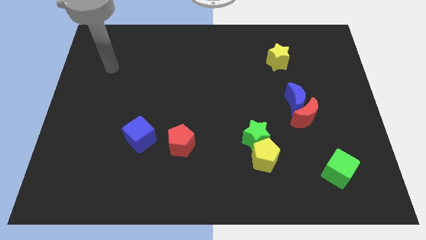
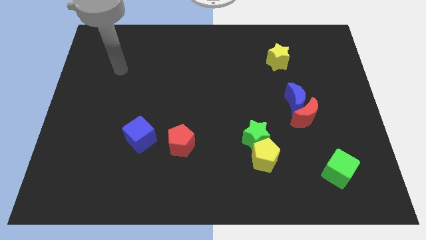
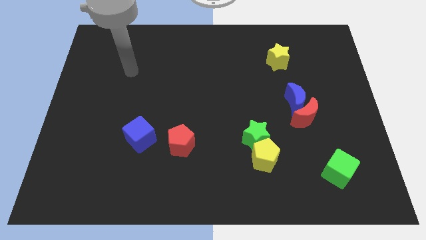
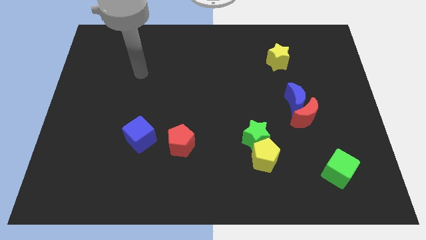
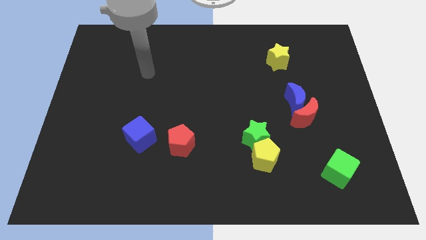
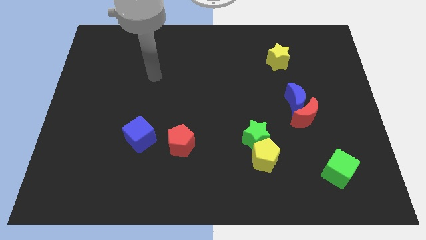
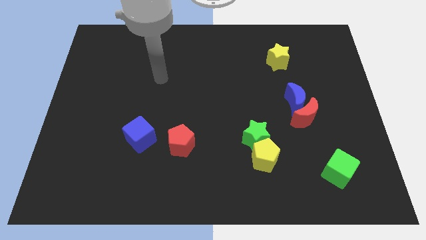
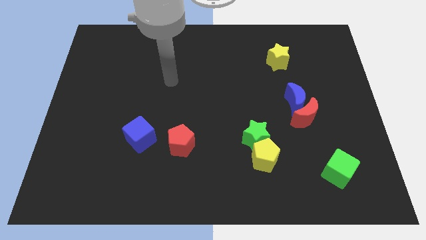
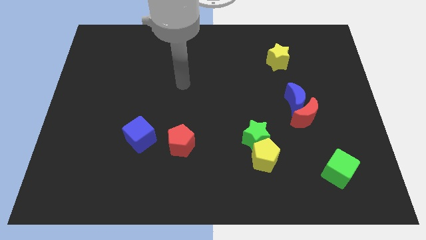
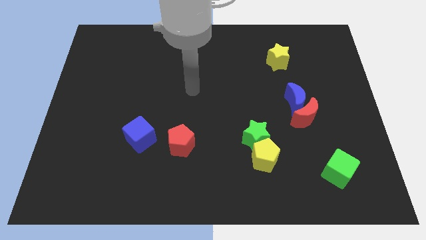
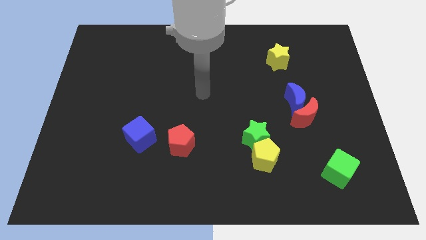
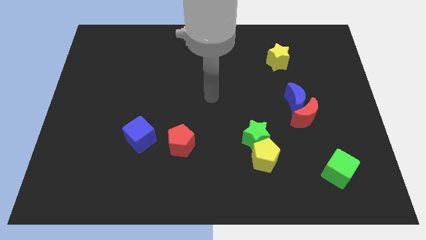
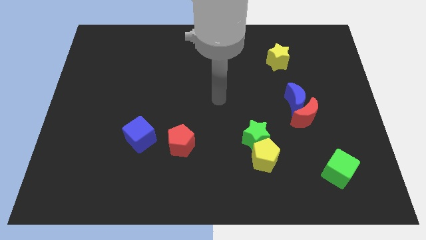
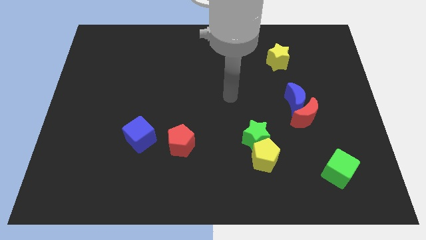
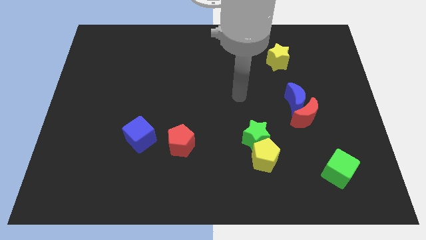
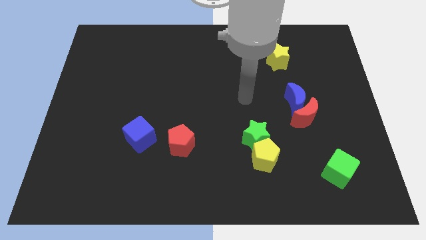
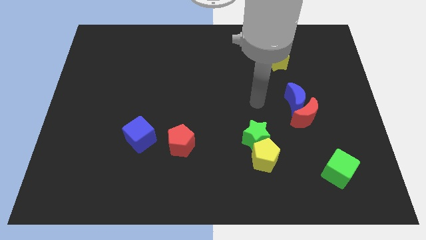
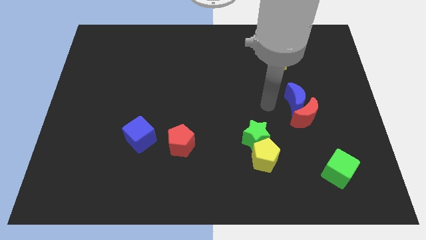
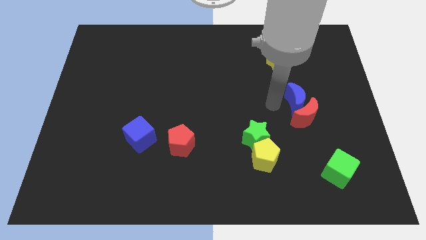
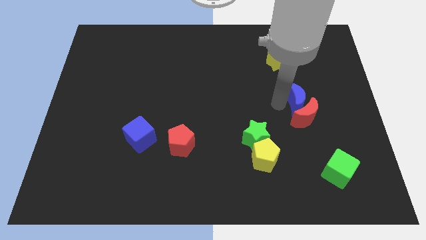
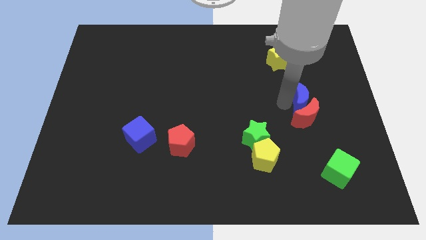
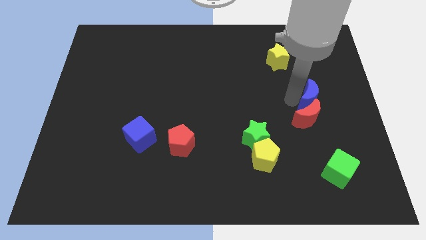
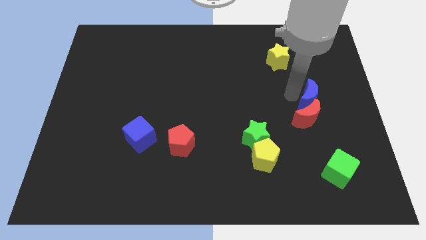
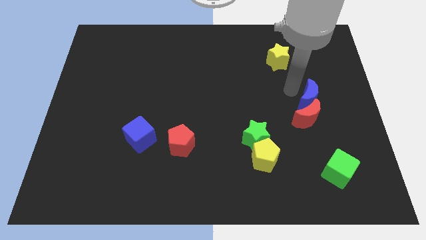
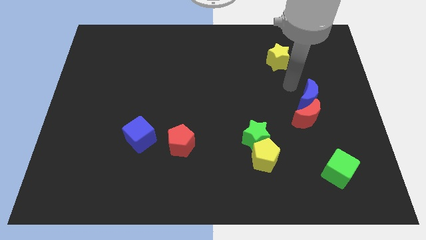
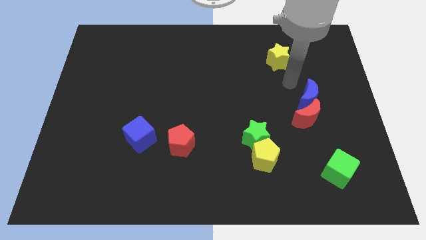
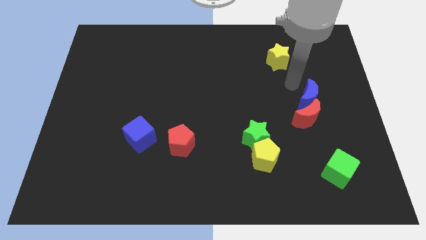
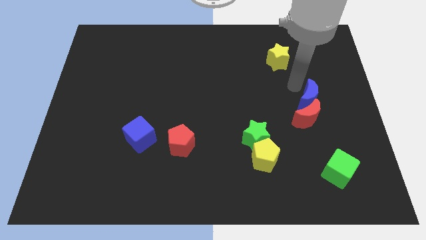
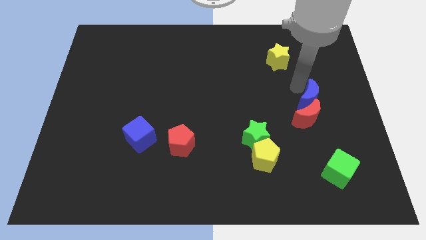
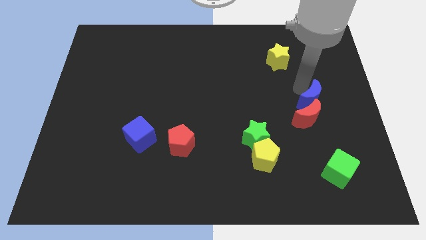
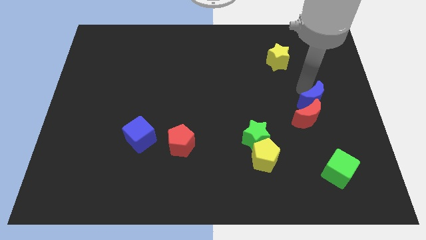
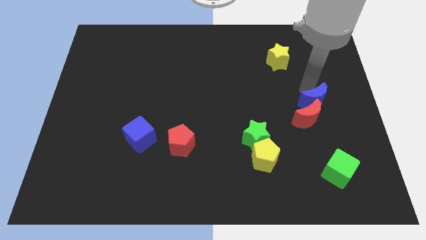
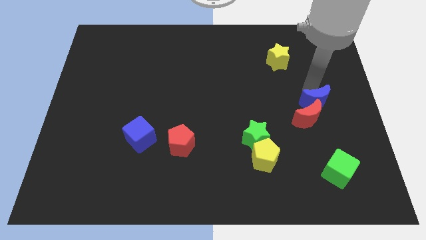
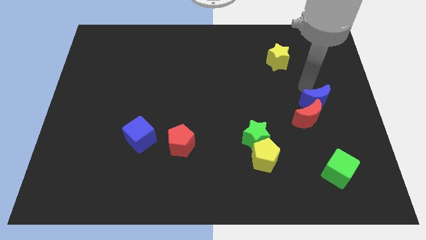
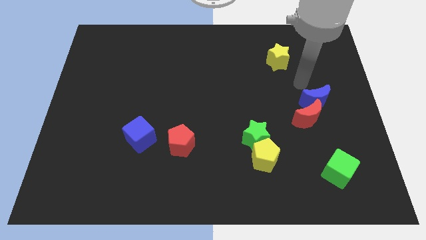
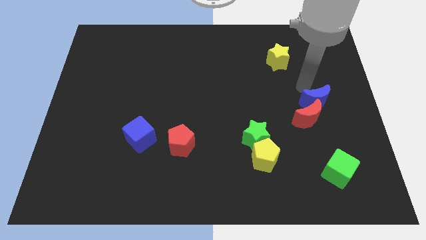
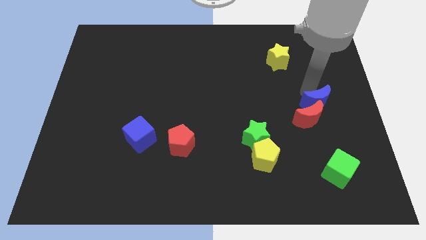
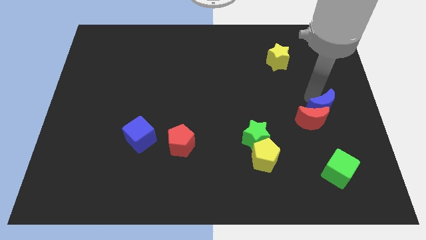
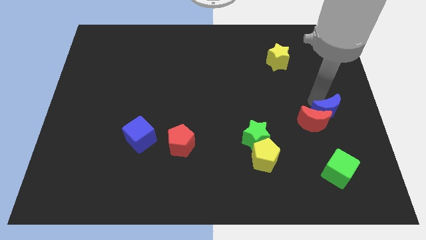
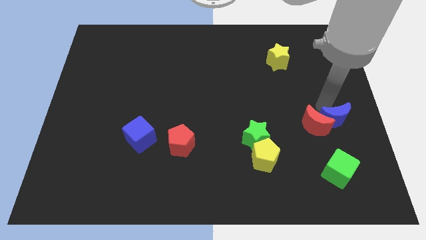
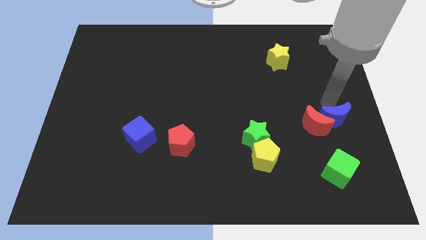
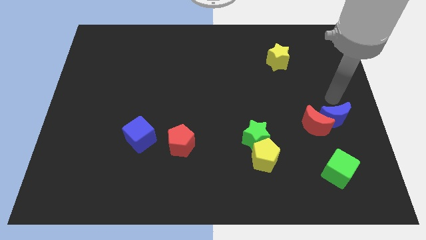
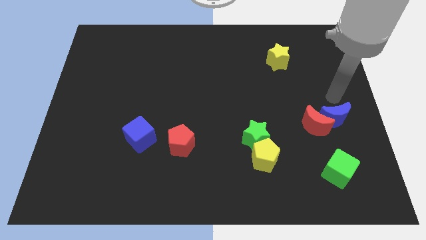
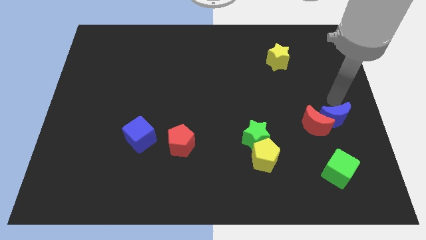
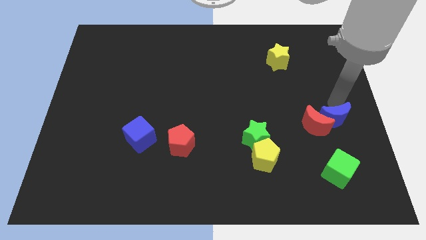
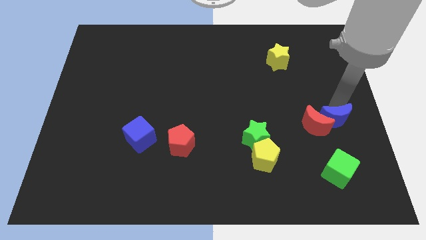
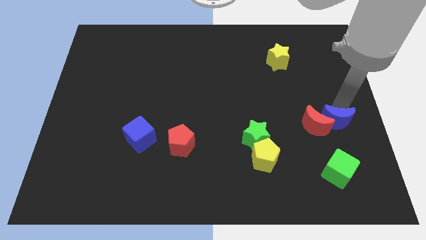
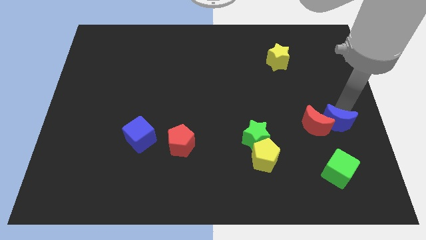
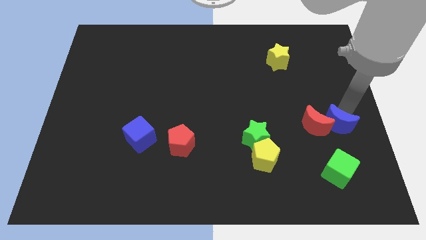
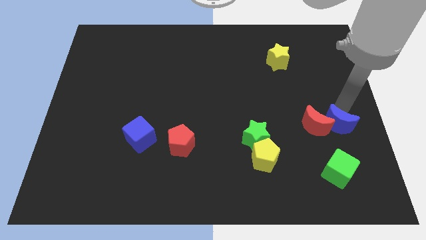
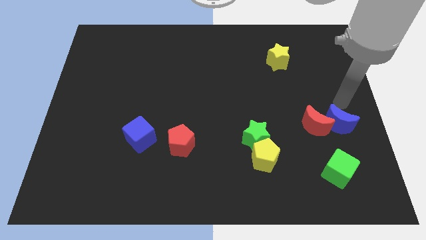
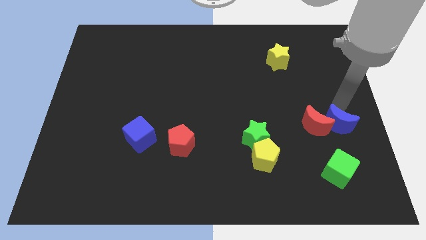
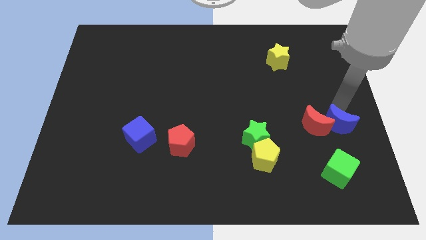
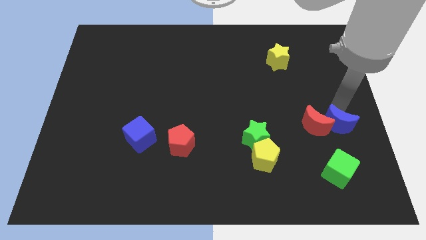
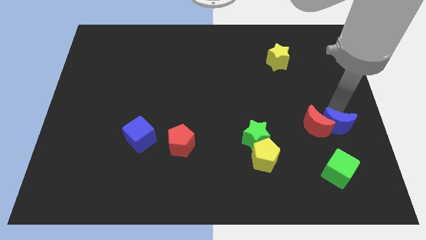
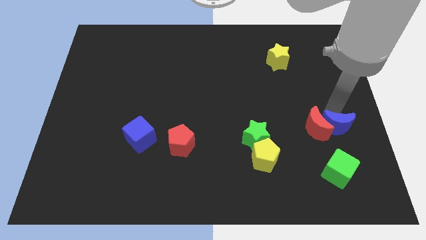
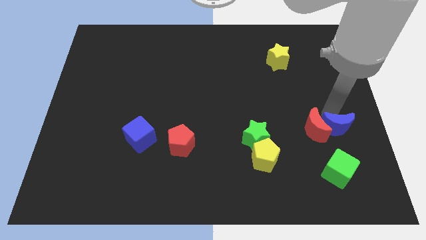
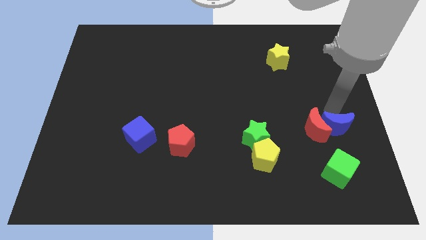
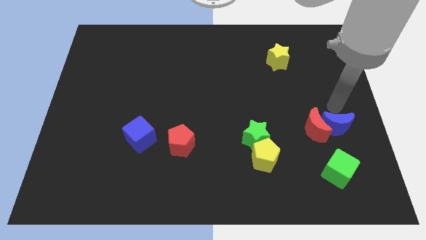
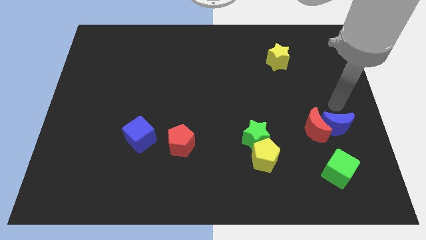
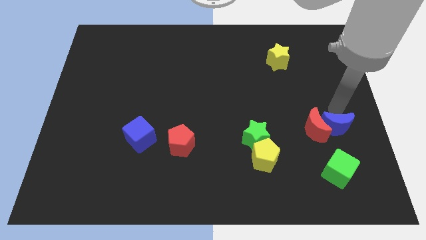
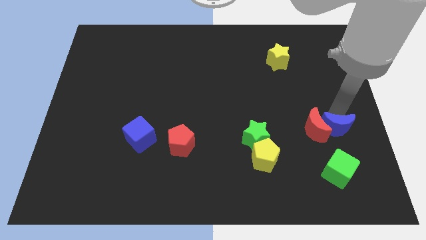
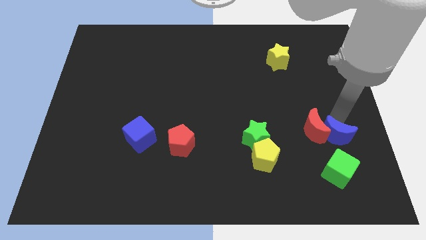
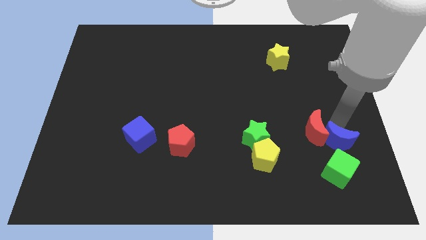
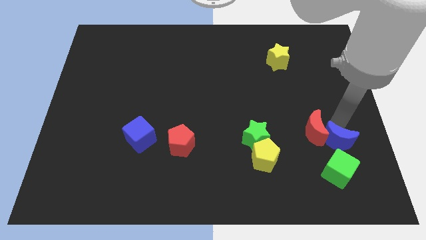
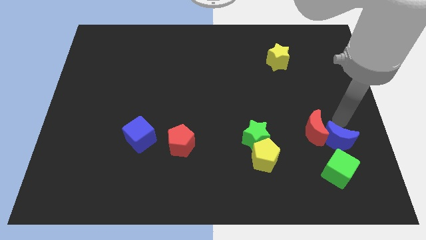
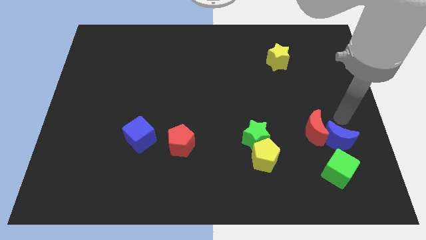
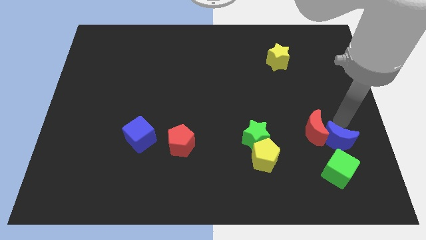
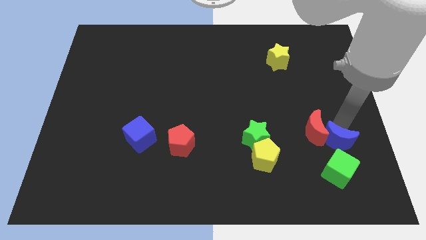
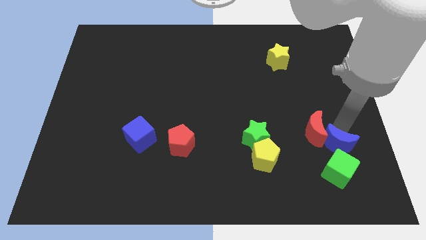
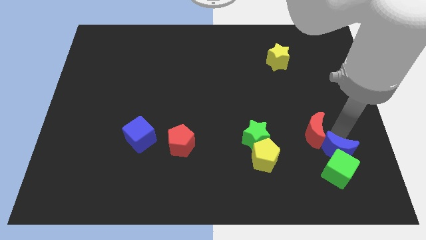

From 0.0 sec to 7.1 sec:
slide the blue moon to the green cube
